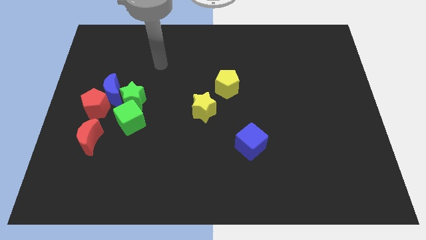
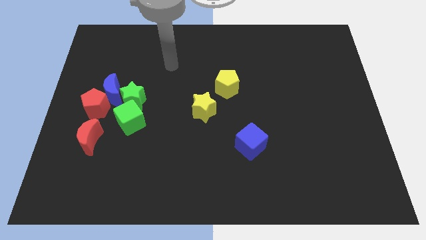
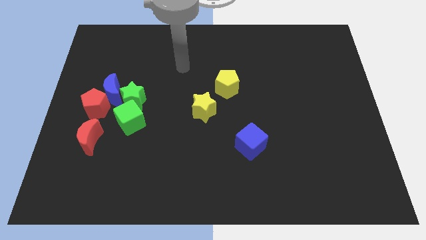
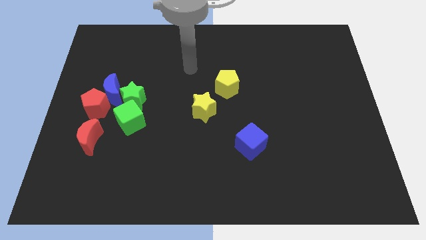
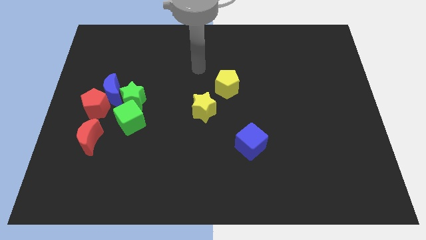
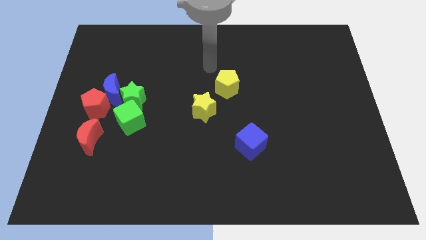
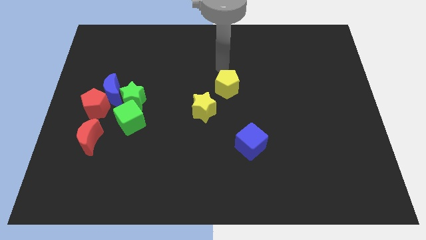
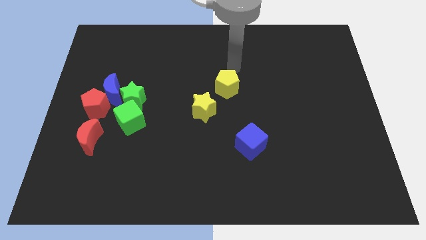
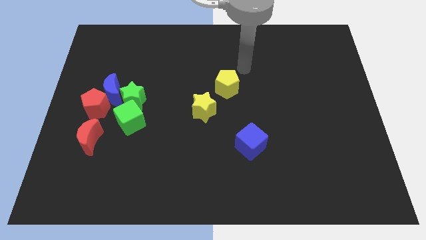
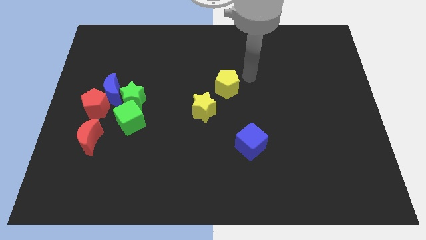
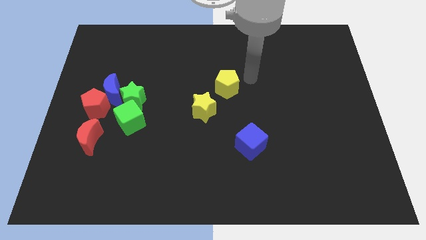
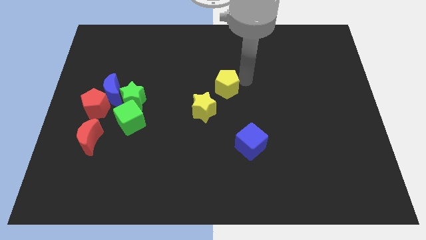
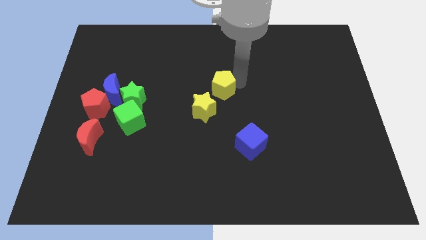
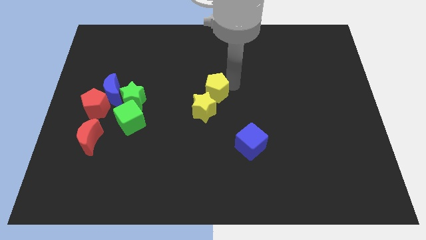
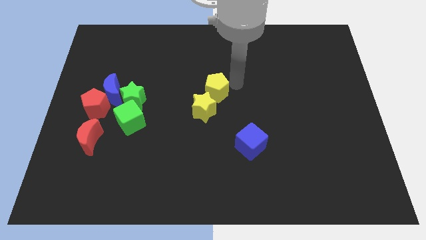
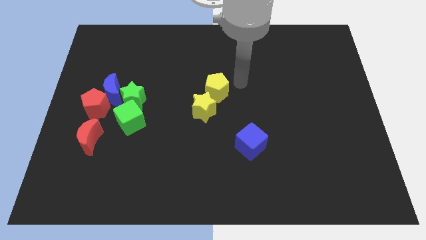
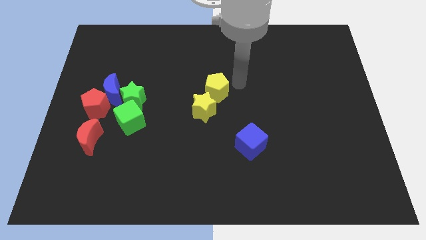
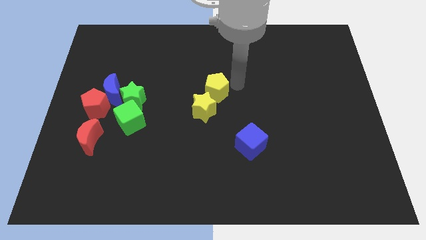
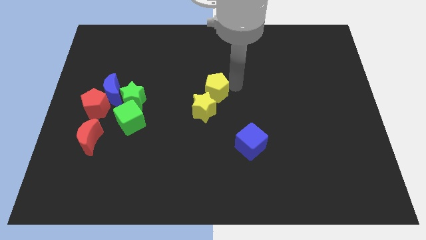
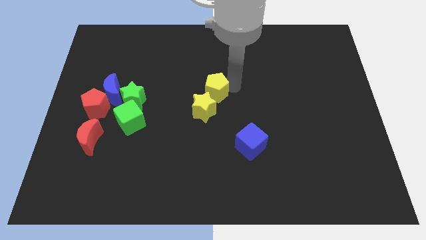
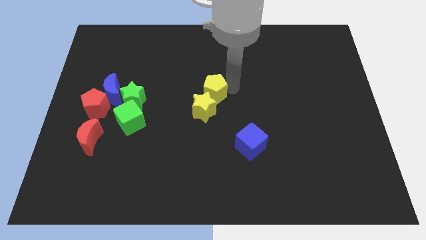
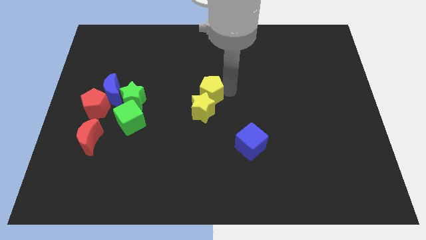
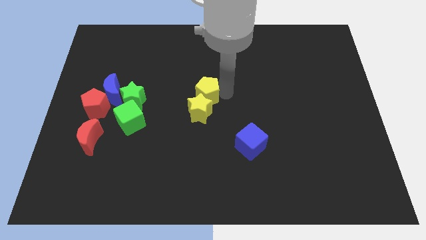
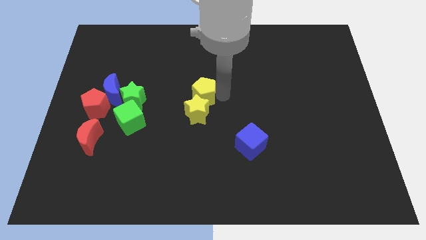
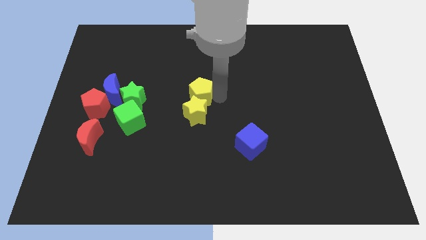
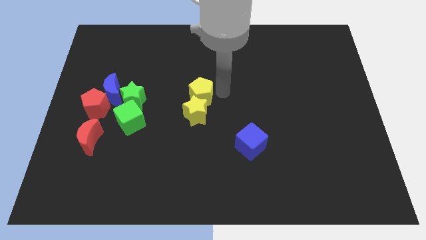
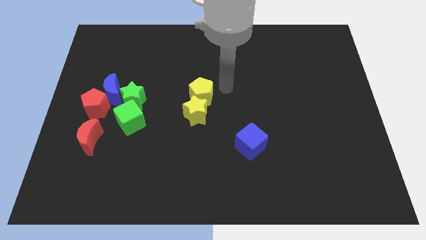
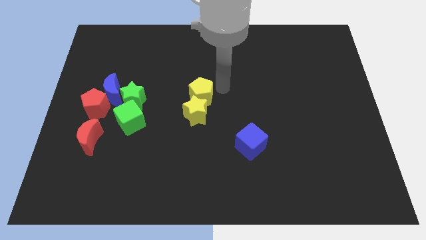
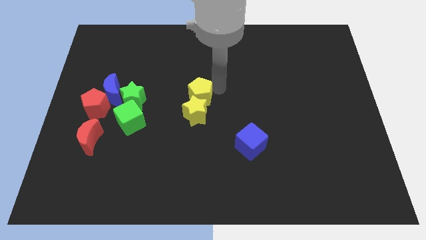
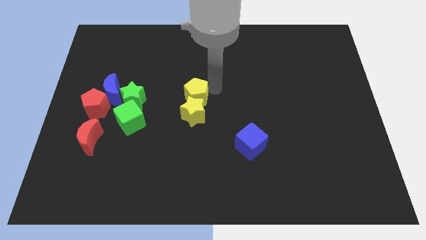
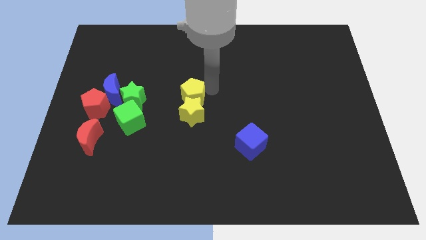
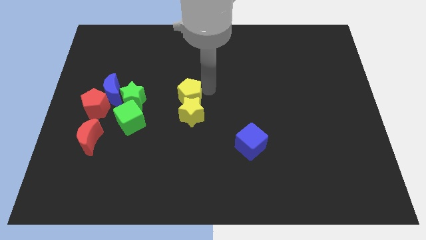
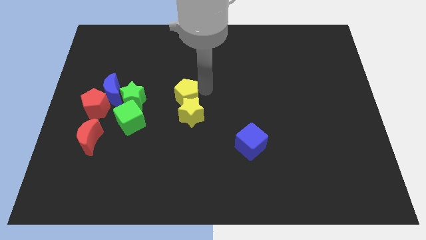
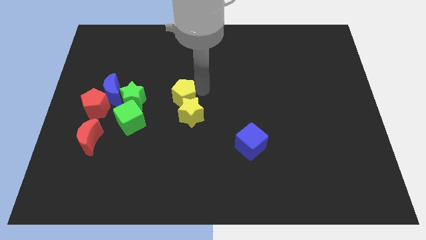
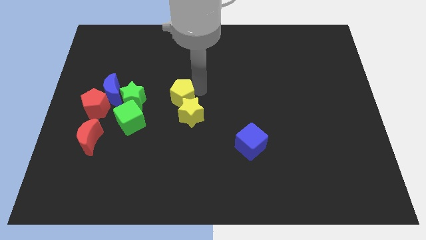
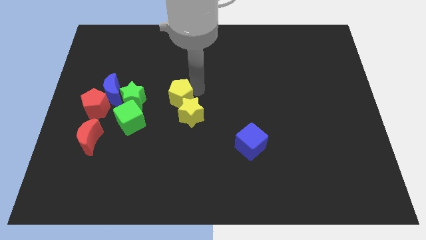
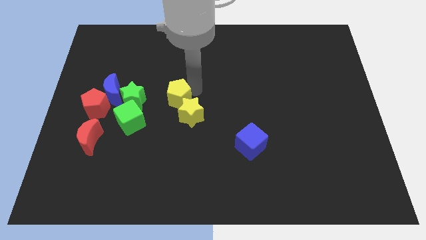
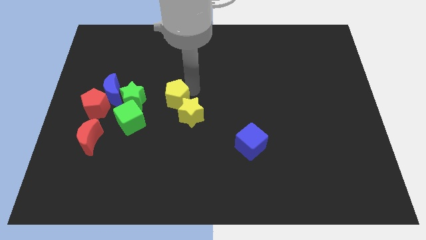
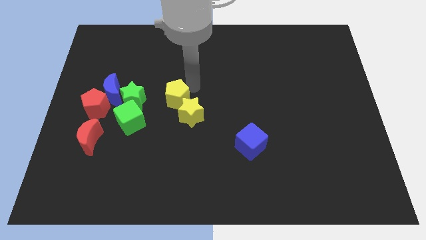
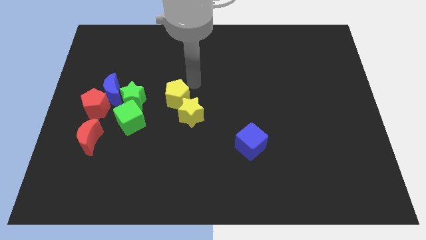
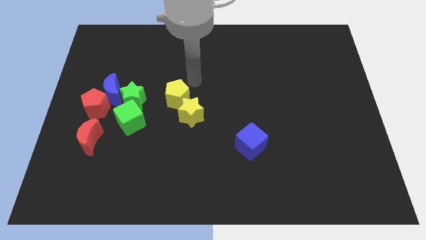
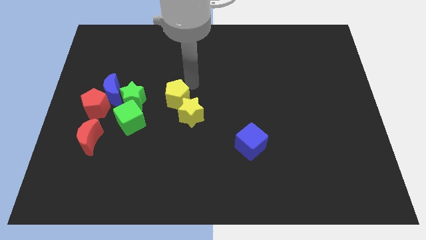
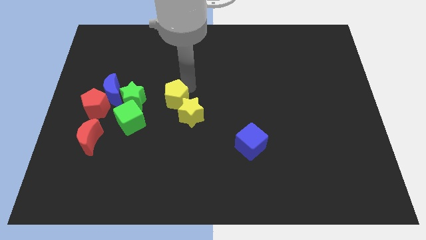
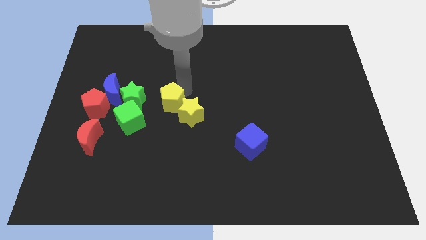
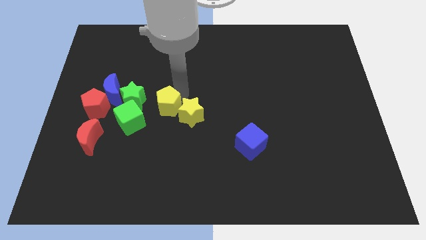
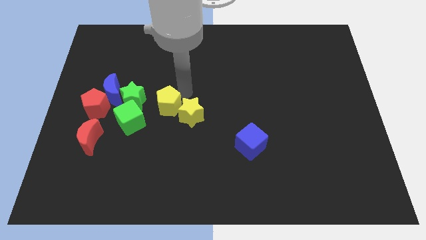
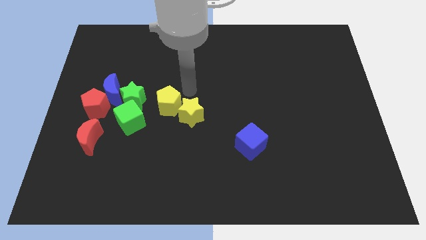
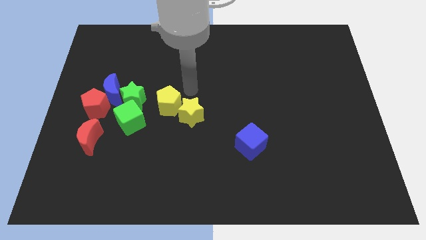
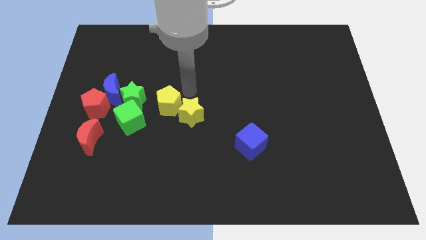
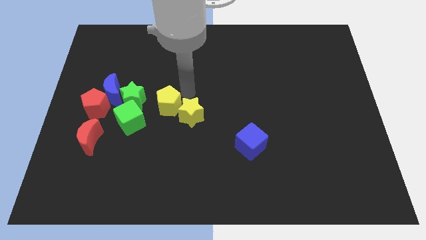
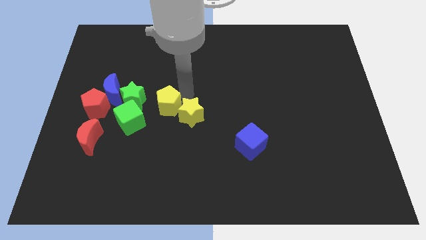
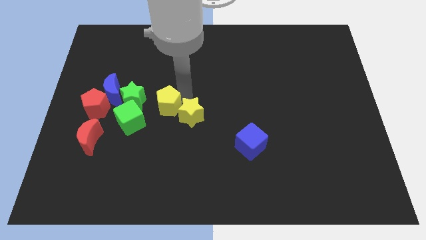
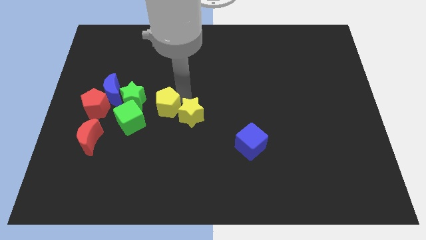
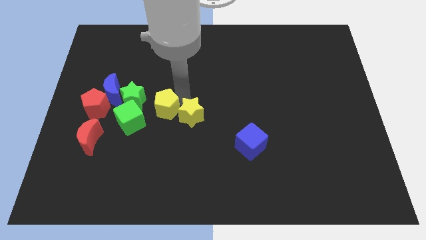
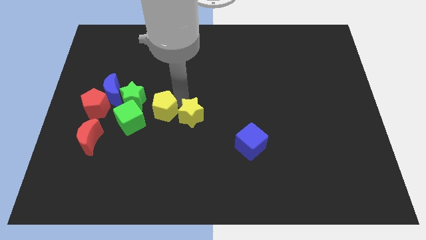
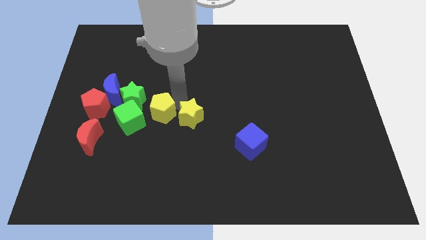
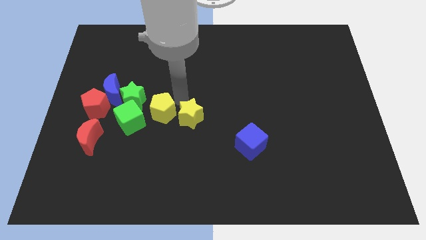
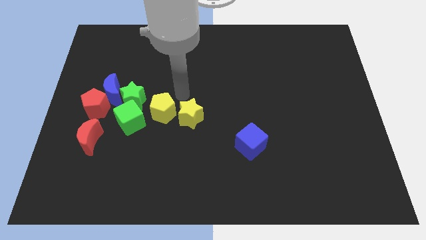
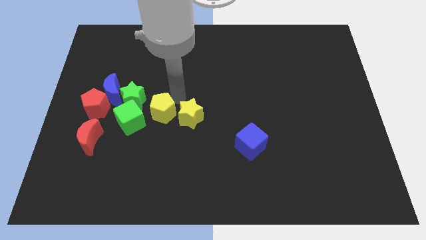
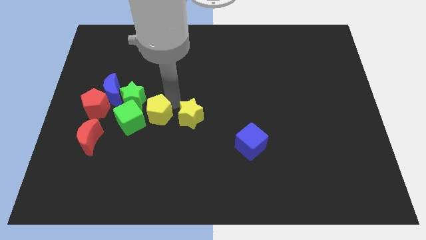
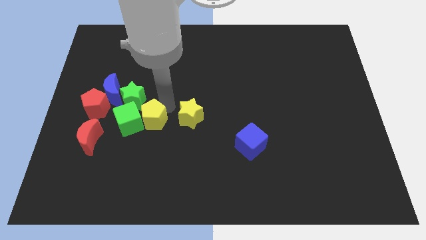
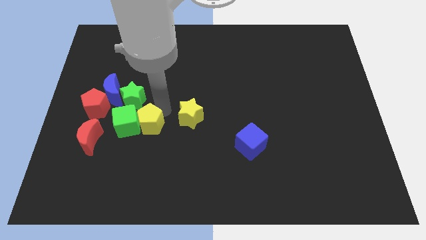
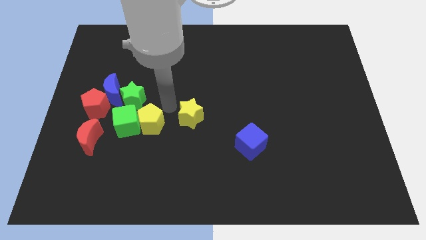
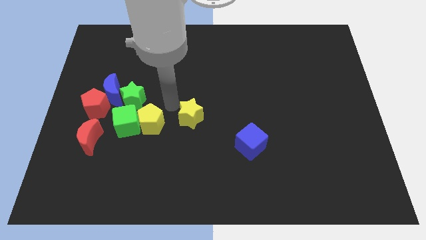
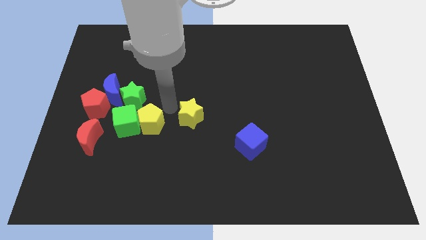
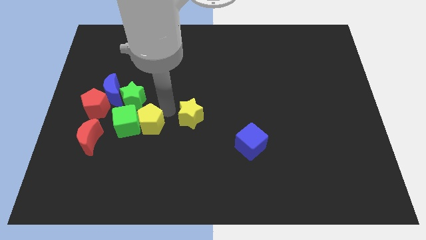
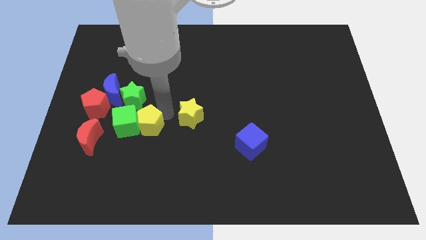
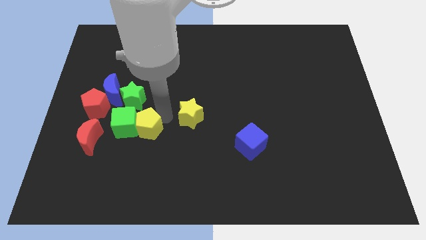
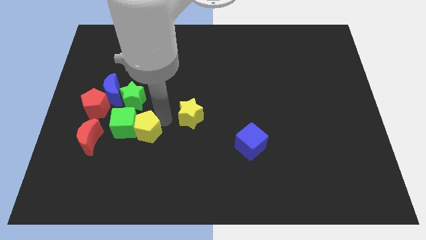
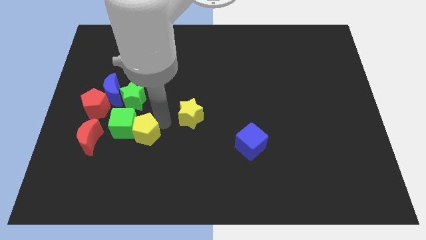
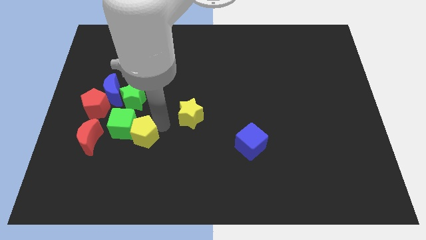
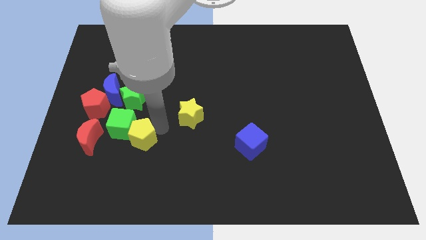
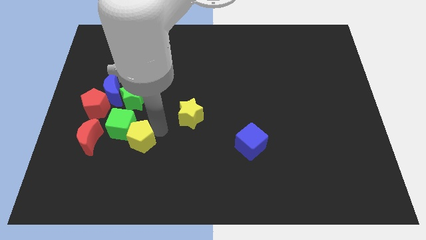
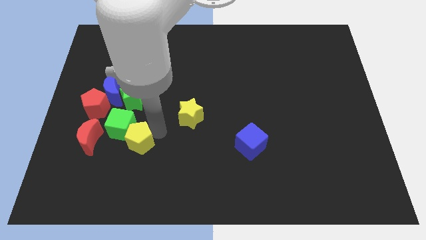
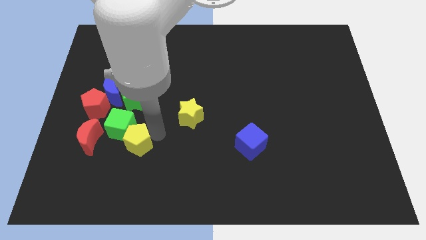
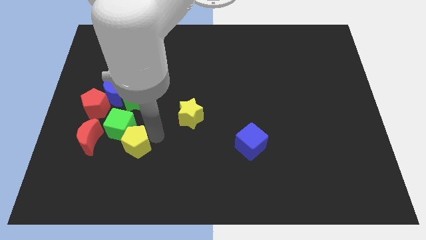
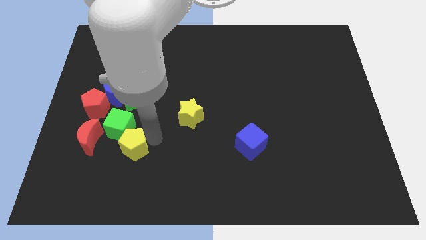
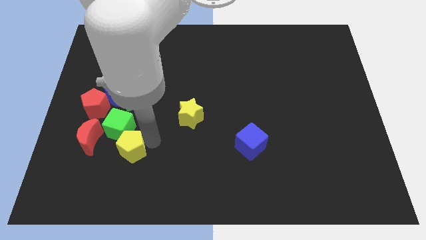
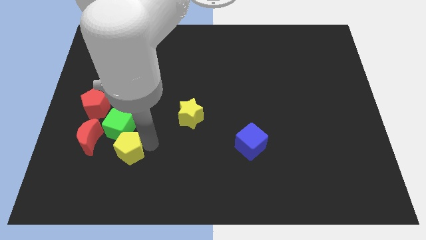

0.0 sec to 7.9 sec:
put the yellow pentagon to the bottom right side of the red moon
